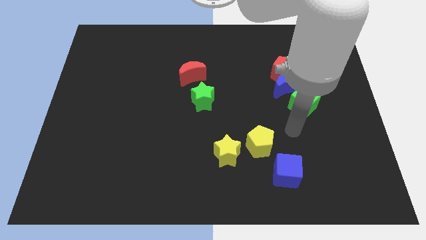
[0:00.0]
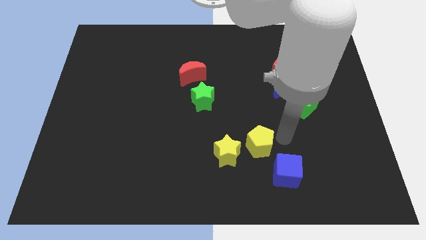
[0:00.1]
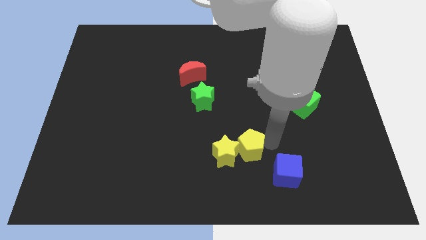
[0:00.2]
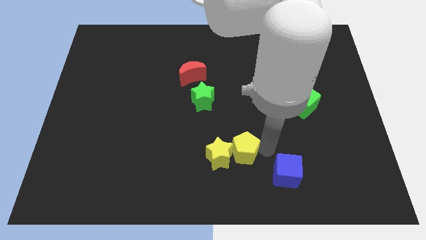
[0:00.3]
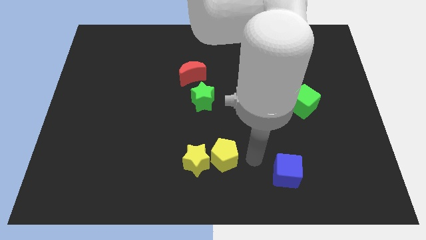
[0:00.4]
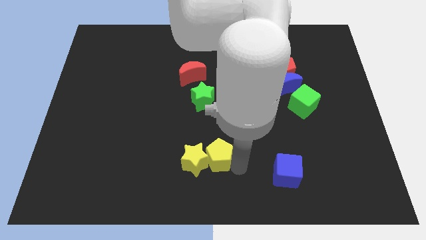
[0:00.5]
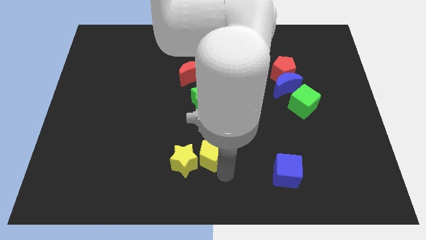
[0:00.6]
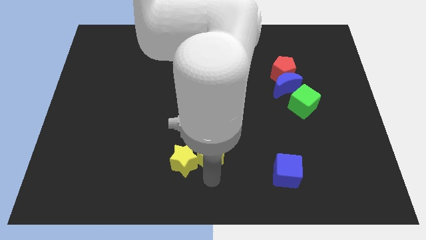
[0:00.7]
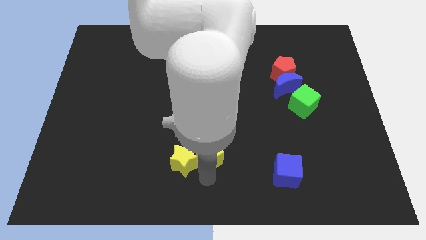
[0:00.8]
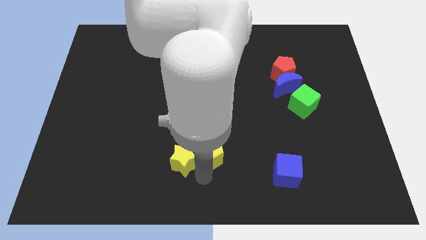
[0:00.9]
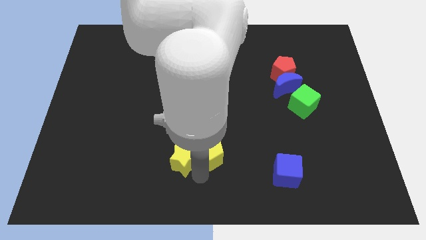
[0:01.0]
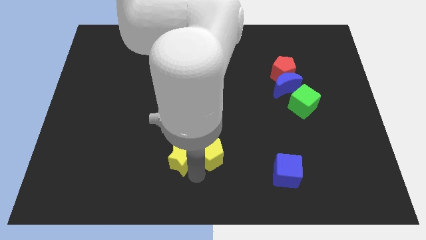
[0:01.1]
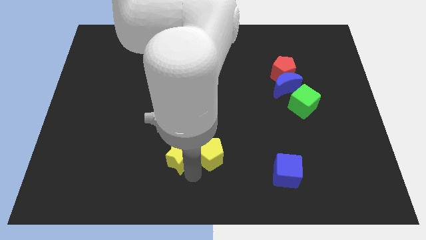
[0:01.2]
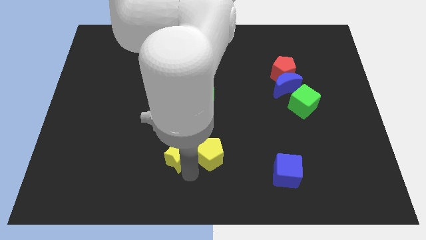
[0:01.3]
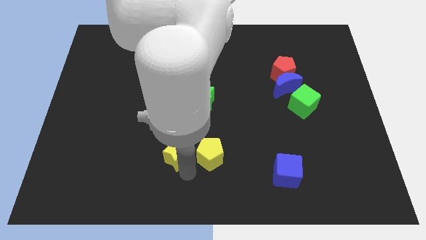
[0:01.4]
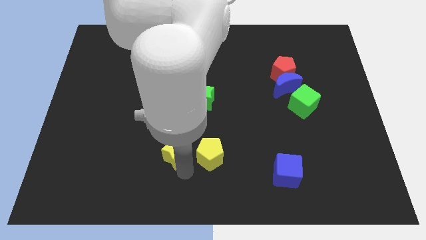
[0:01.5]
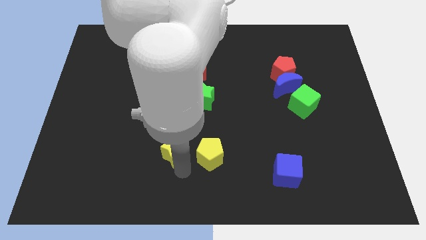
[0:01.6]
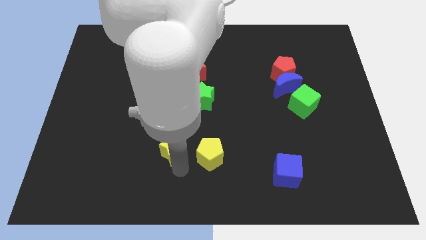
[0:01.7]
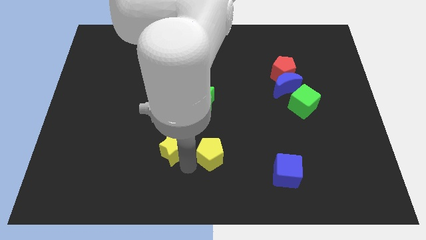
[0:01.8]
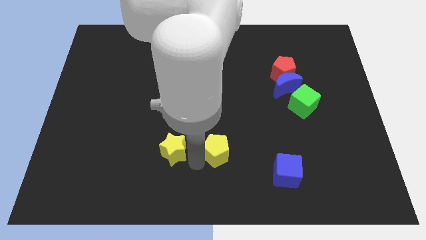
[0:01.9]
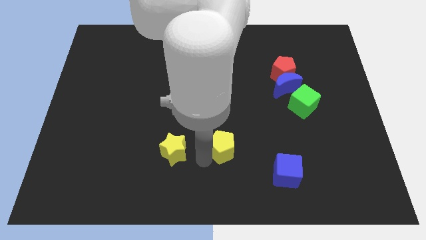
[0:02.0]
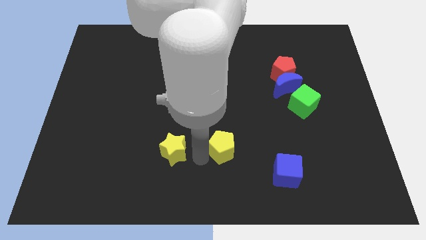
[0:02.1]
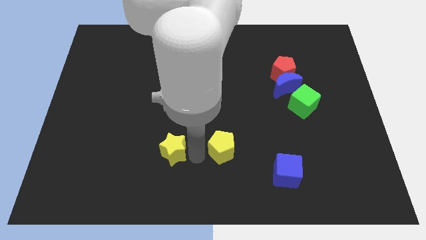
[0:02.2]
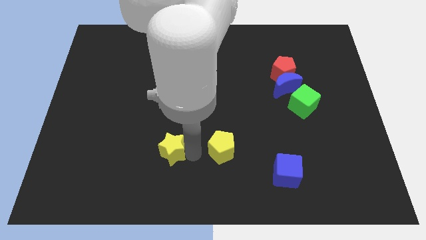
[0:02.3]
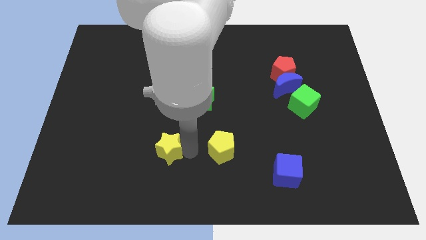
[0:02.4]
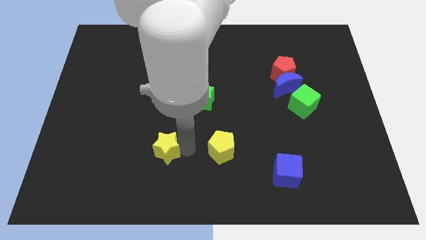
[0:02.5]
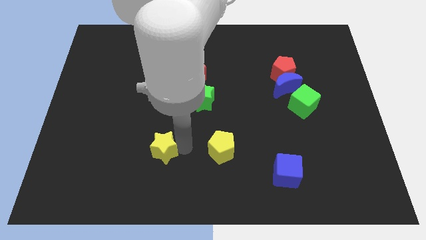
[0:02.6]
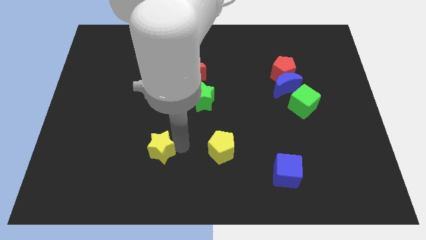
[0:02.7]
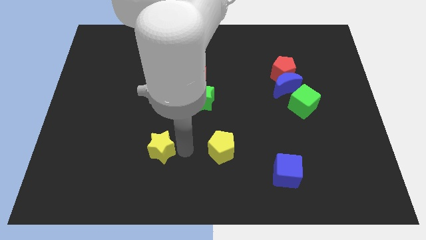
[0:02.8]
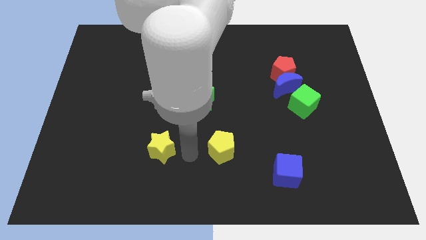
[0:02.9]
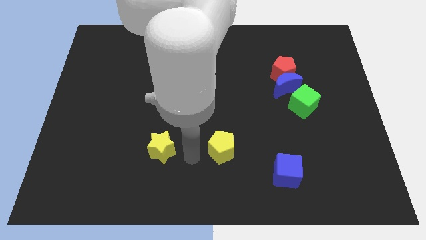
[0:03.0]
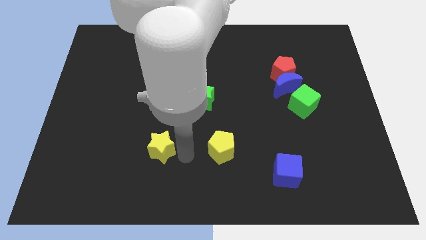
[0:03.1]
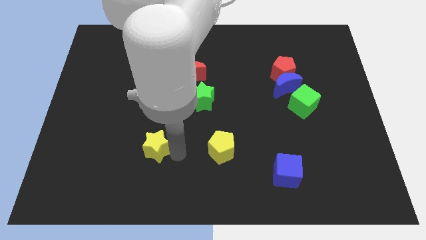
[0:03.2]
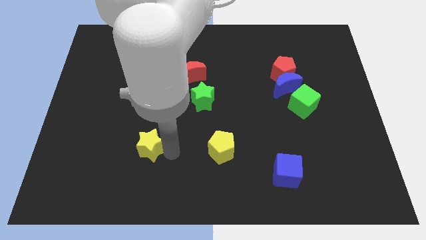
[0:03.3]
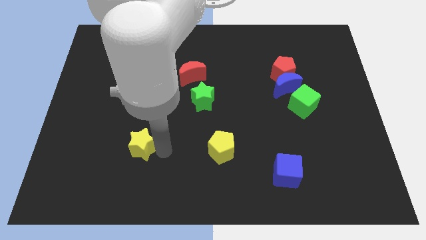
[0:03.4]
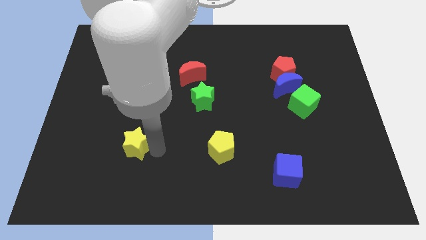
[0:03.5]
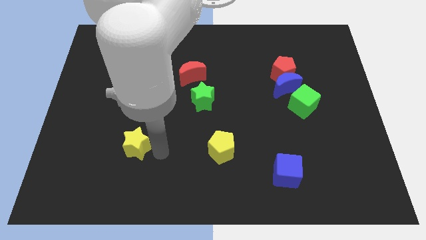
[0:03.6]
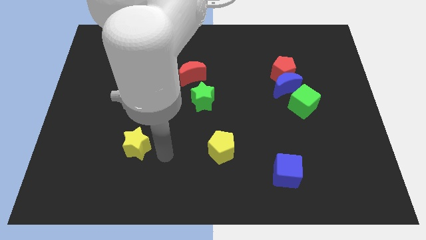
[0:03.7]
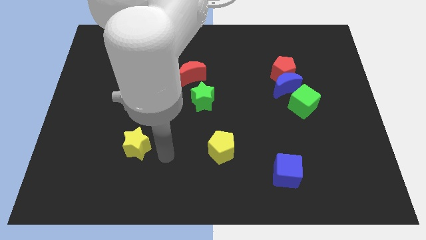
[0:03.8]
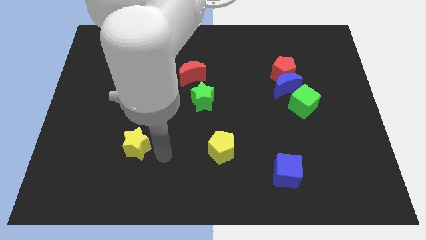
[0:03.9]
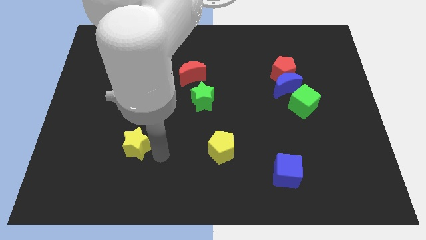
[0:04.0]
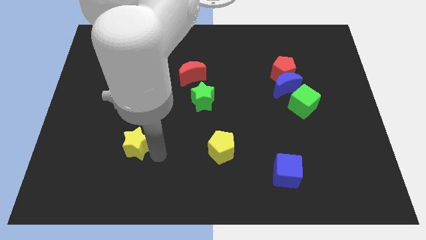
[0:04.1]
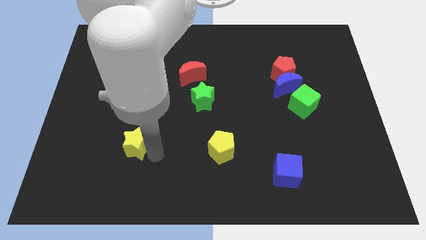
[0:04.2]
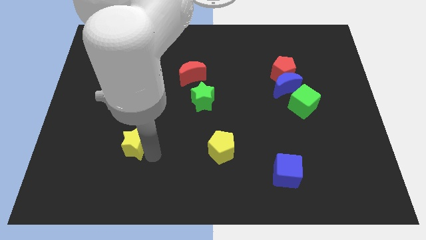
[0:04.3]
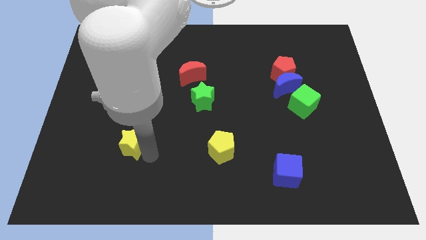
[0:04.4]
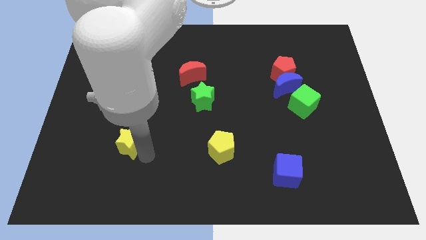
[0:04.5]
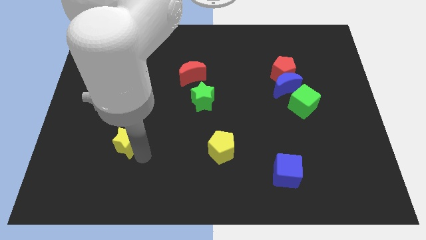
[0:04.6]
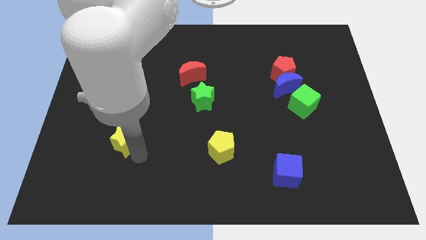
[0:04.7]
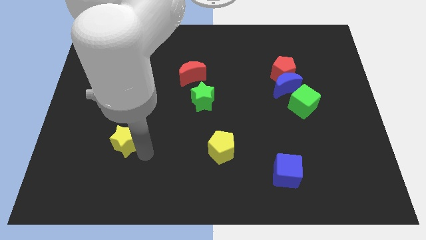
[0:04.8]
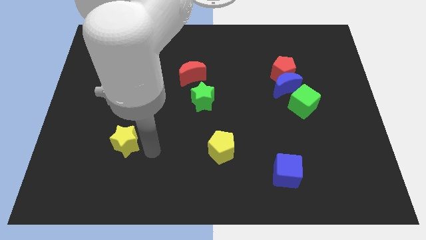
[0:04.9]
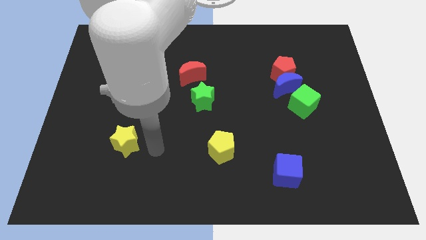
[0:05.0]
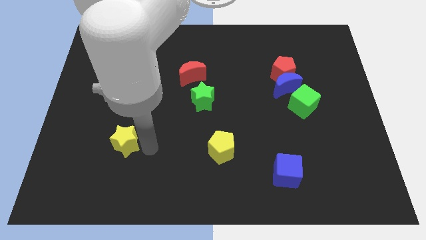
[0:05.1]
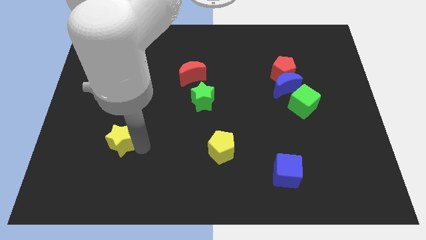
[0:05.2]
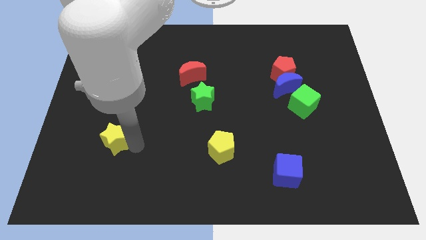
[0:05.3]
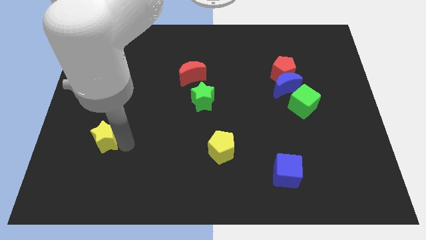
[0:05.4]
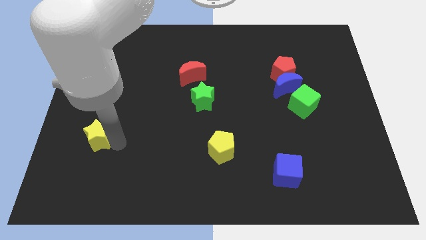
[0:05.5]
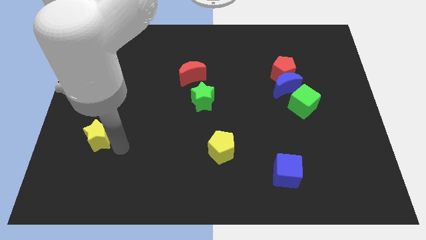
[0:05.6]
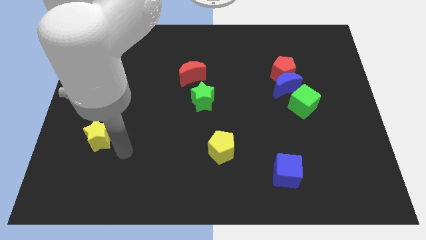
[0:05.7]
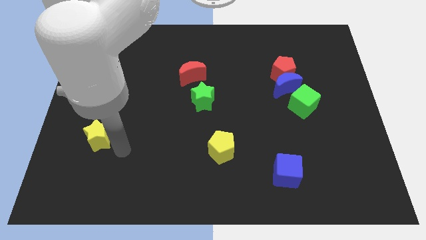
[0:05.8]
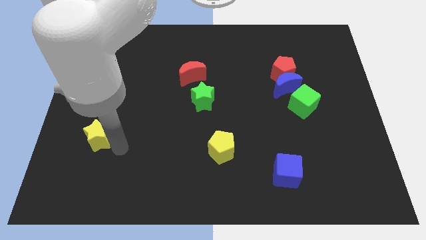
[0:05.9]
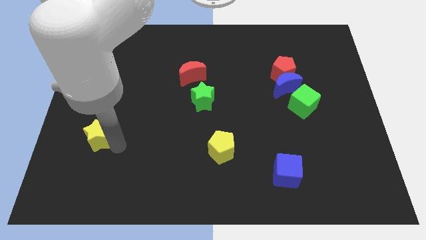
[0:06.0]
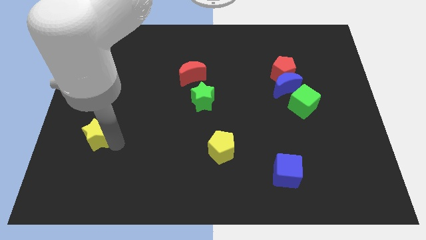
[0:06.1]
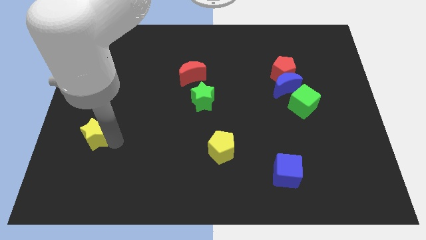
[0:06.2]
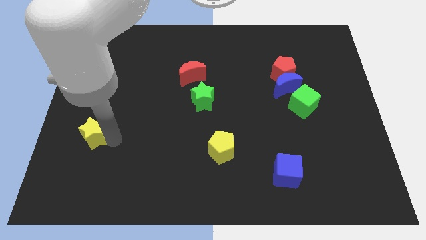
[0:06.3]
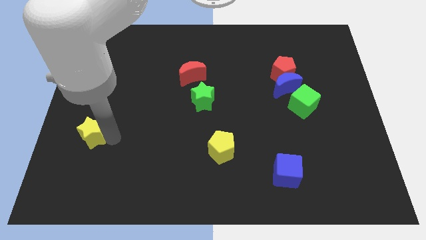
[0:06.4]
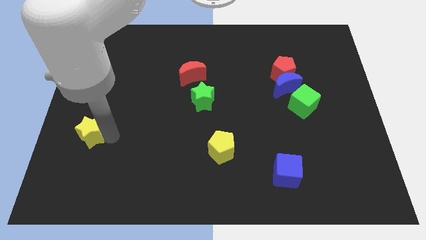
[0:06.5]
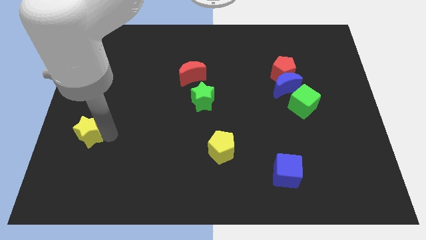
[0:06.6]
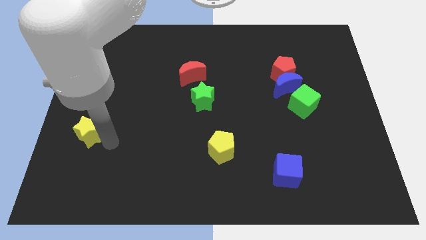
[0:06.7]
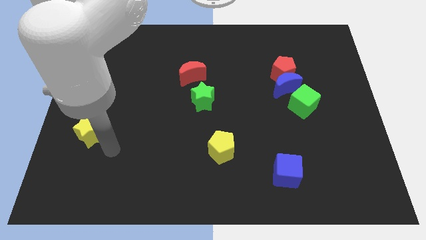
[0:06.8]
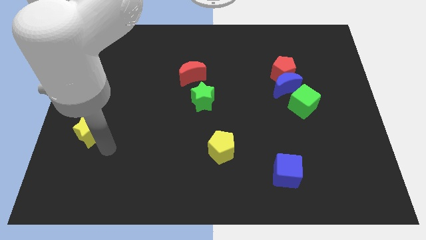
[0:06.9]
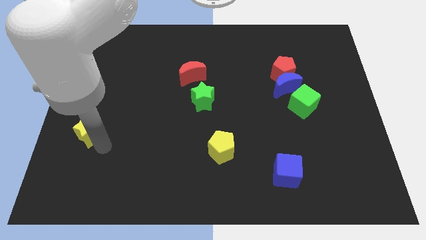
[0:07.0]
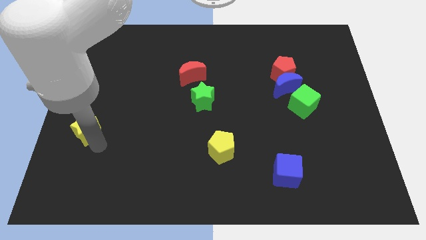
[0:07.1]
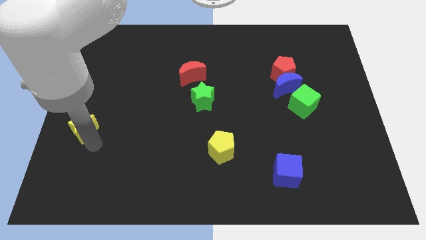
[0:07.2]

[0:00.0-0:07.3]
push the yellow star to the left side of the board
